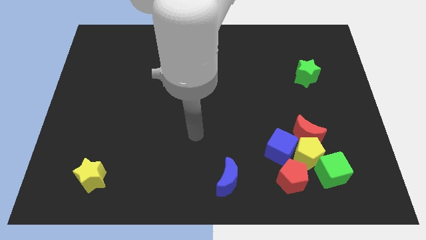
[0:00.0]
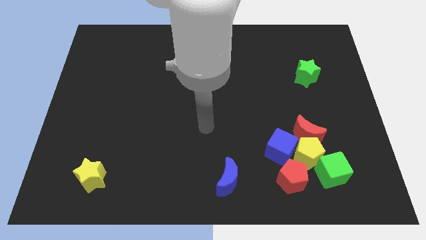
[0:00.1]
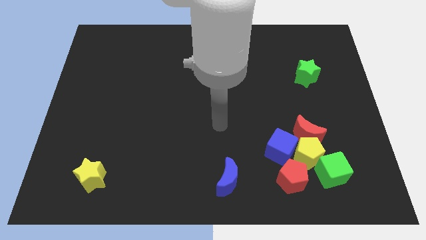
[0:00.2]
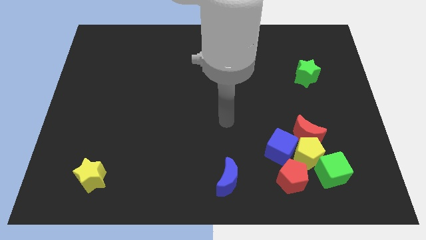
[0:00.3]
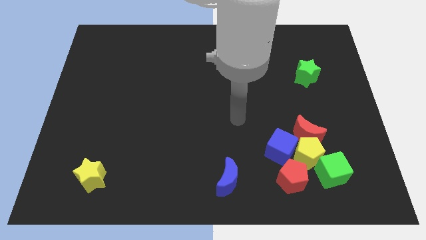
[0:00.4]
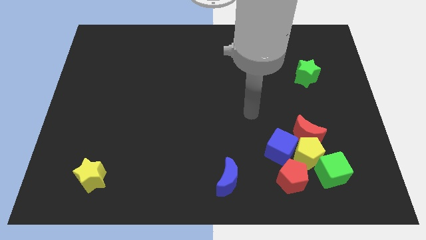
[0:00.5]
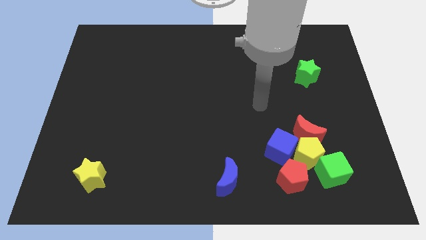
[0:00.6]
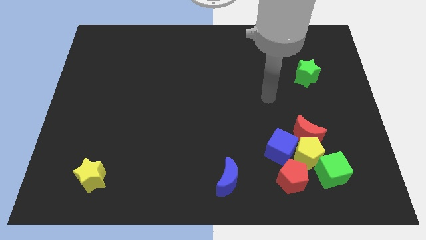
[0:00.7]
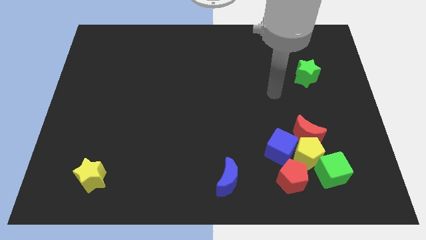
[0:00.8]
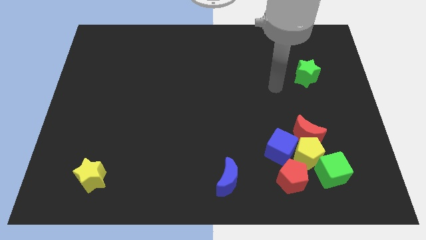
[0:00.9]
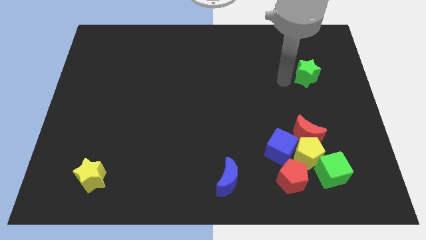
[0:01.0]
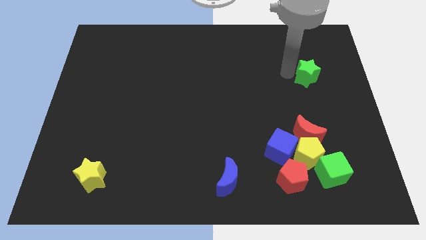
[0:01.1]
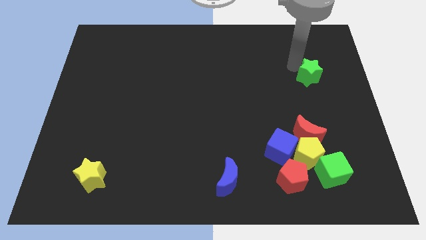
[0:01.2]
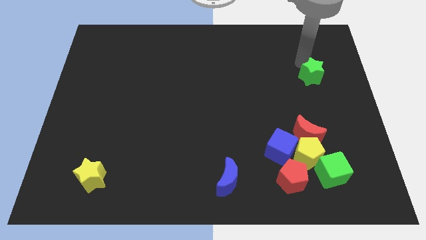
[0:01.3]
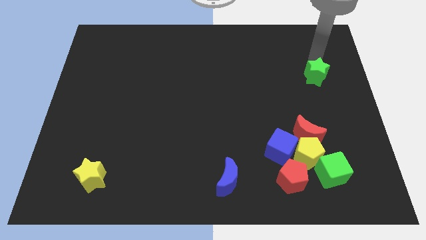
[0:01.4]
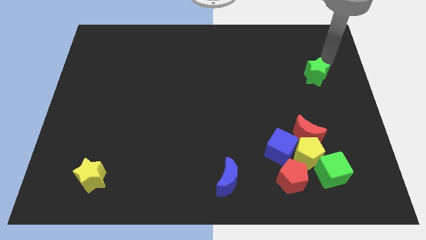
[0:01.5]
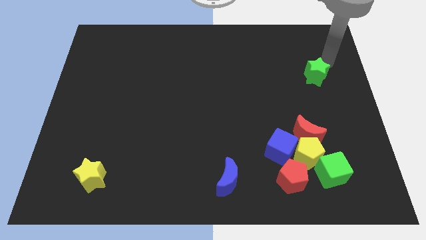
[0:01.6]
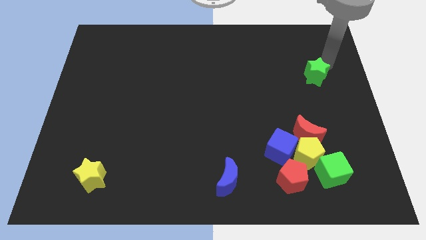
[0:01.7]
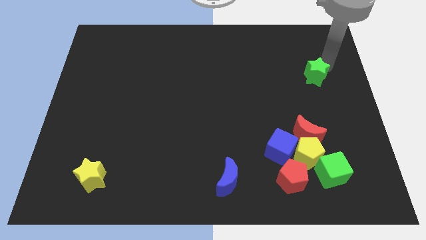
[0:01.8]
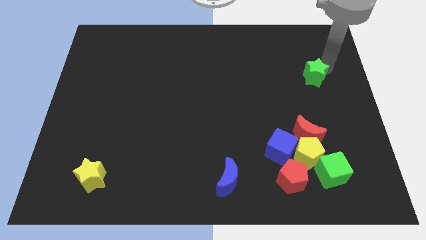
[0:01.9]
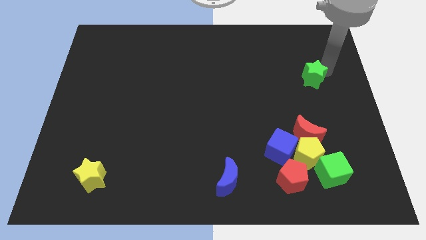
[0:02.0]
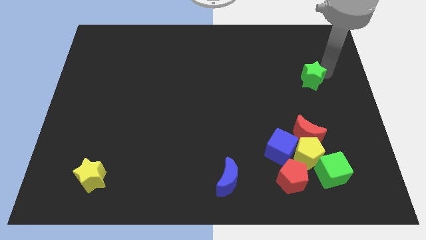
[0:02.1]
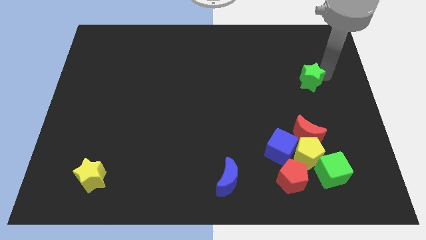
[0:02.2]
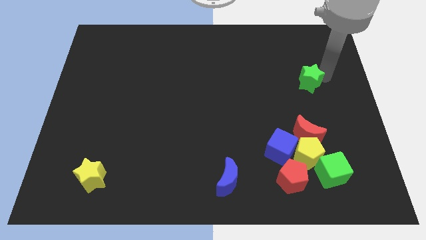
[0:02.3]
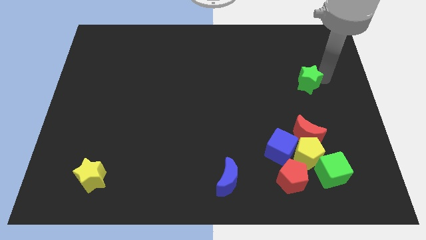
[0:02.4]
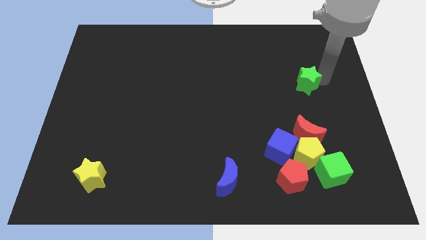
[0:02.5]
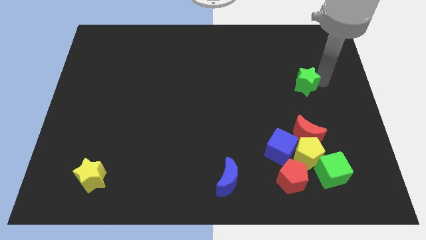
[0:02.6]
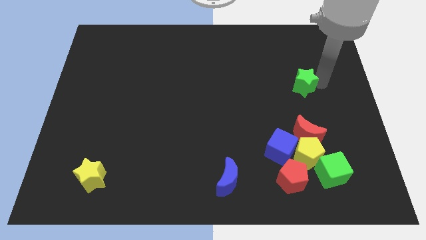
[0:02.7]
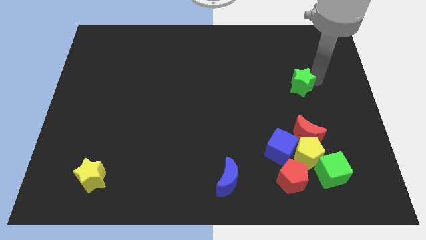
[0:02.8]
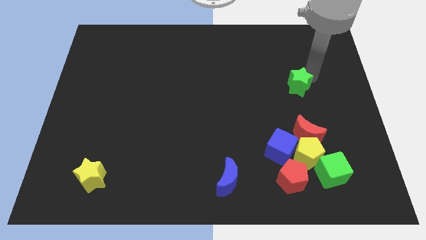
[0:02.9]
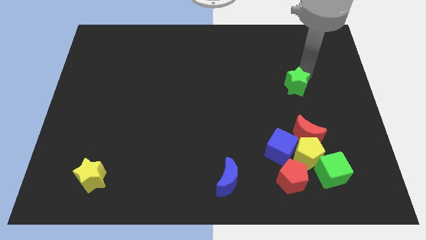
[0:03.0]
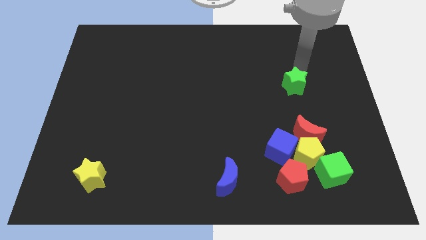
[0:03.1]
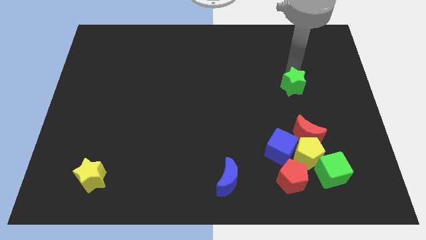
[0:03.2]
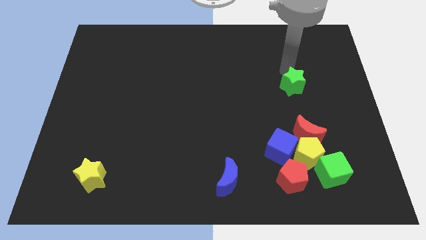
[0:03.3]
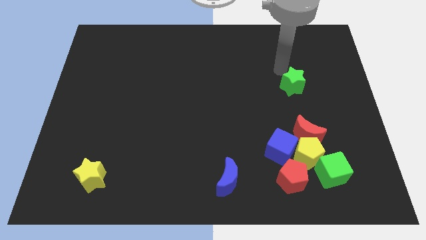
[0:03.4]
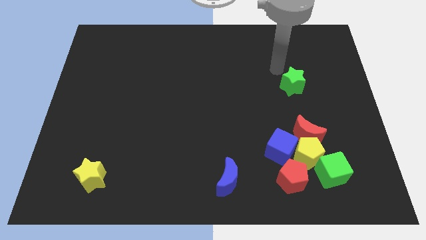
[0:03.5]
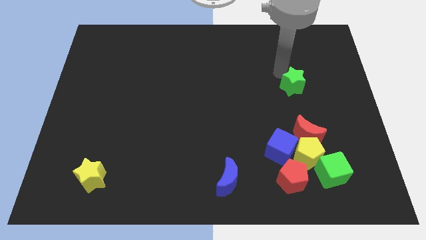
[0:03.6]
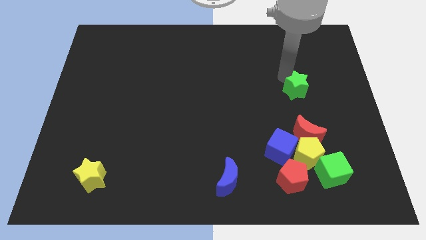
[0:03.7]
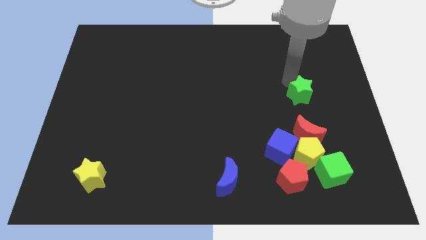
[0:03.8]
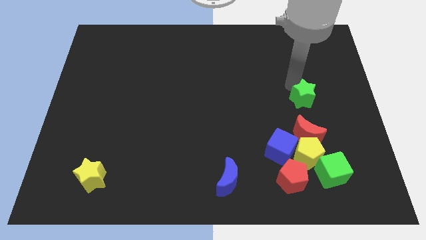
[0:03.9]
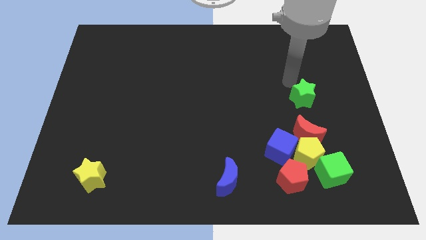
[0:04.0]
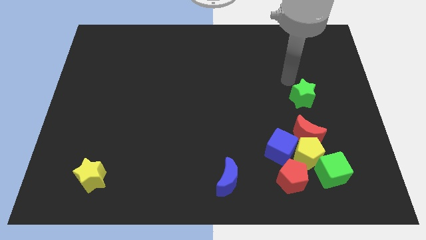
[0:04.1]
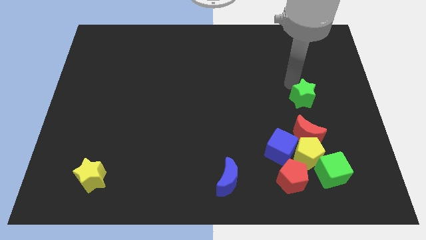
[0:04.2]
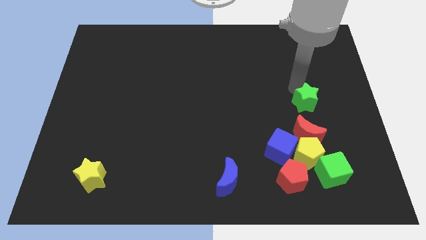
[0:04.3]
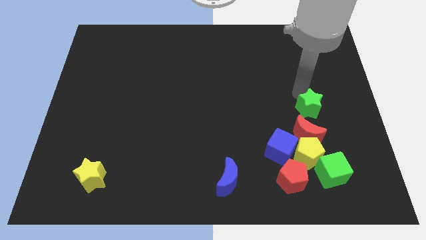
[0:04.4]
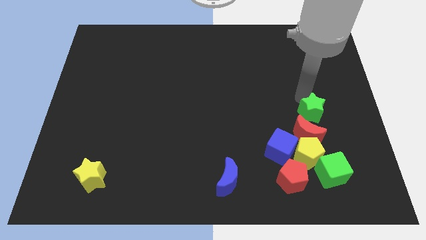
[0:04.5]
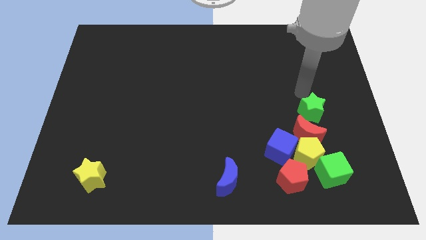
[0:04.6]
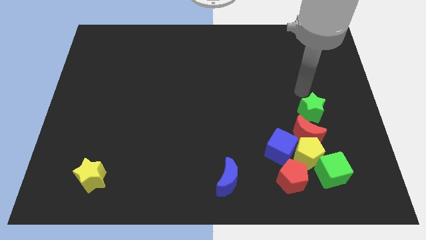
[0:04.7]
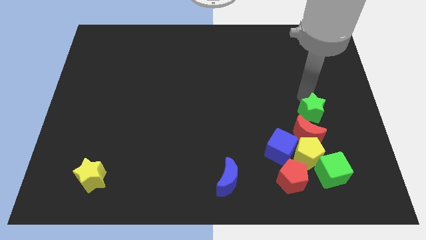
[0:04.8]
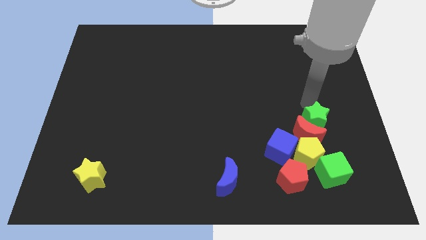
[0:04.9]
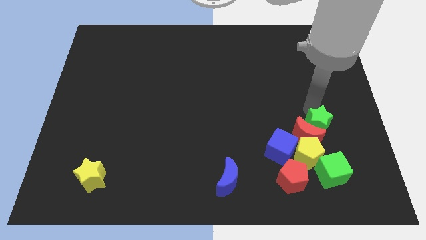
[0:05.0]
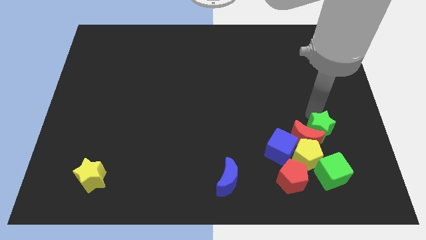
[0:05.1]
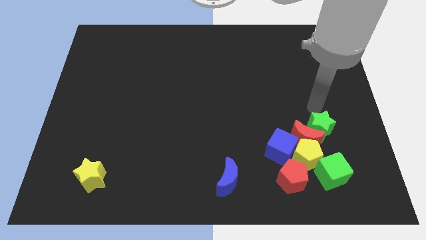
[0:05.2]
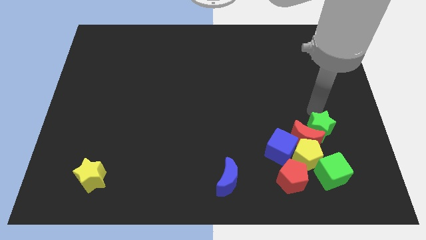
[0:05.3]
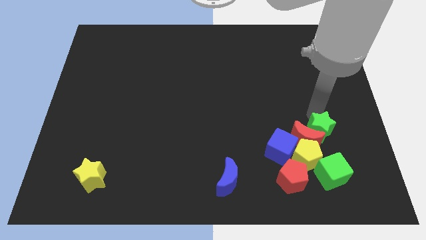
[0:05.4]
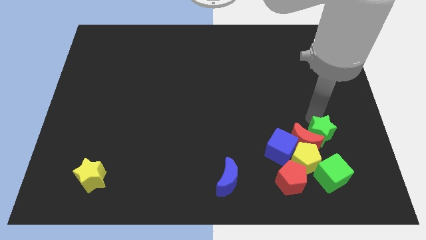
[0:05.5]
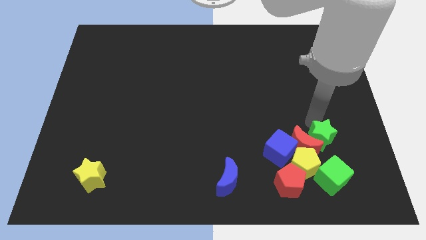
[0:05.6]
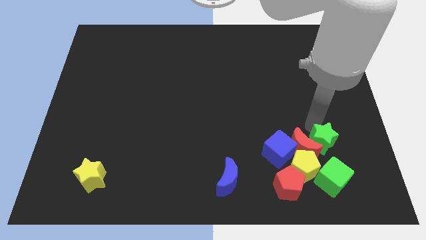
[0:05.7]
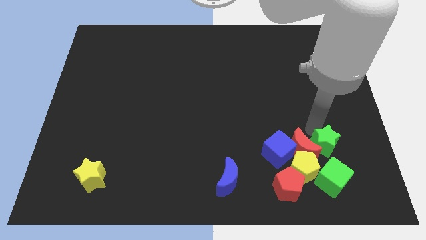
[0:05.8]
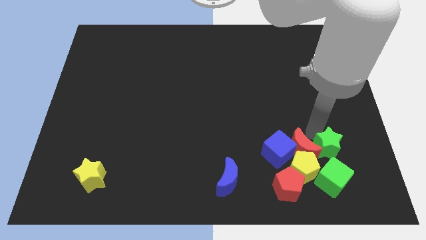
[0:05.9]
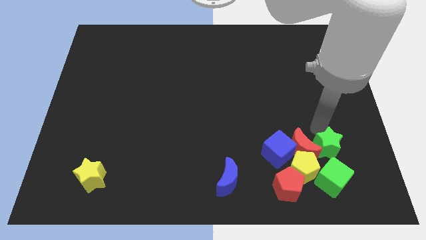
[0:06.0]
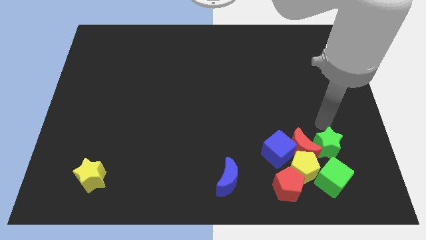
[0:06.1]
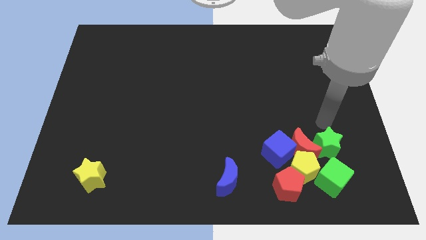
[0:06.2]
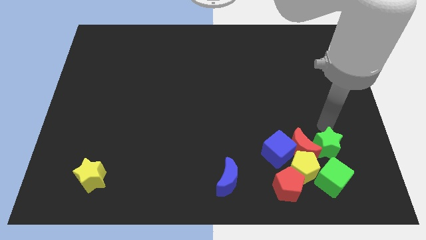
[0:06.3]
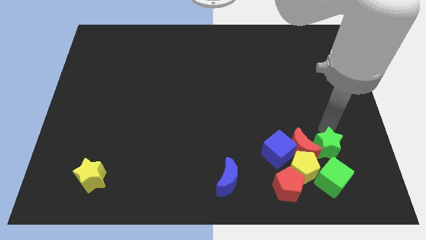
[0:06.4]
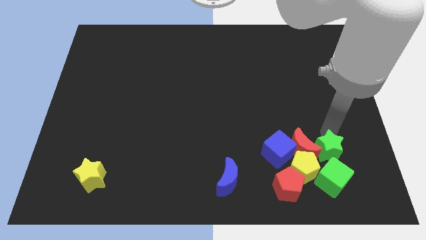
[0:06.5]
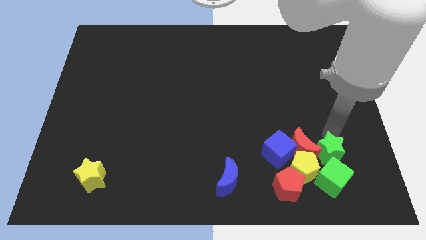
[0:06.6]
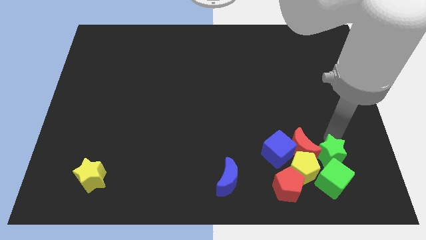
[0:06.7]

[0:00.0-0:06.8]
slide the green star to the green cube
